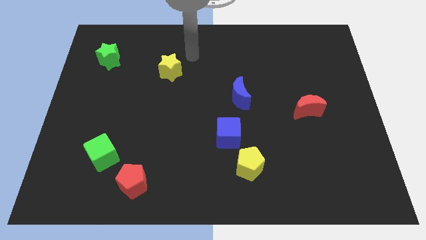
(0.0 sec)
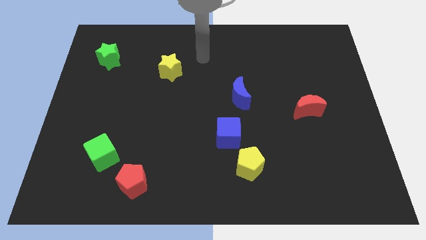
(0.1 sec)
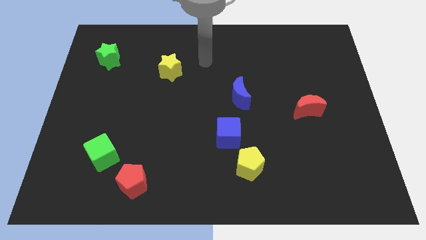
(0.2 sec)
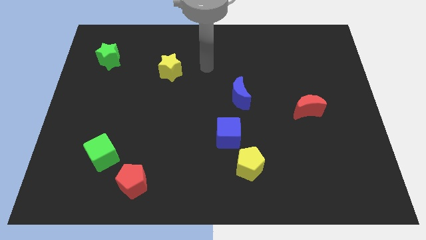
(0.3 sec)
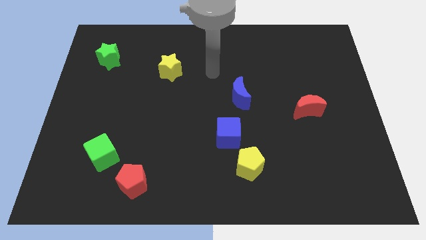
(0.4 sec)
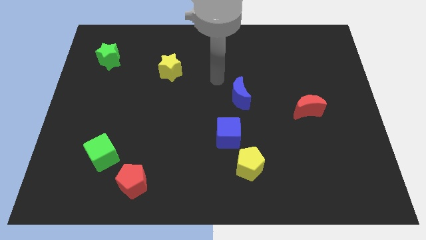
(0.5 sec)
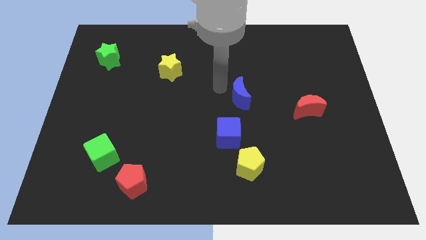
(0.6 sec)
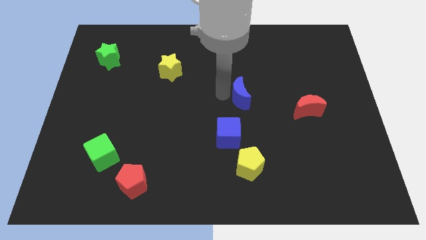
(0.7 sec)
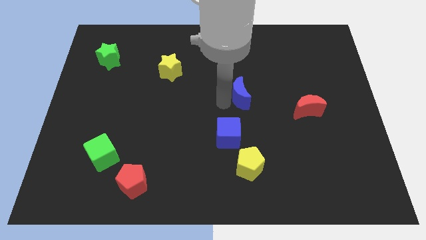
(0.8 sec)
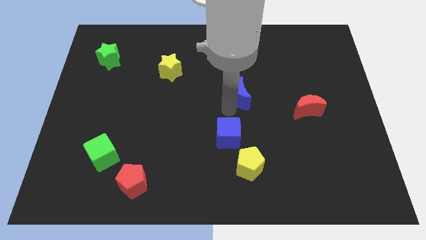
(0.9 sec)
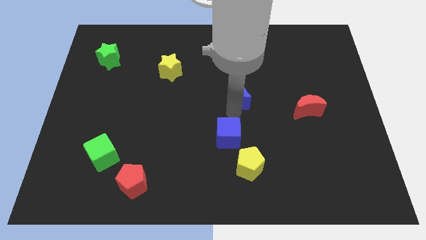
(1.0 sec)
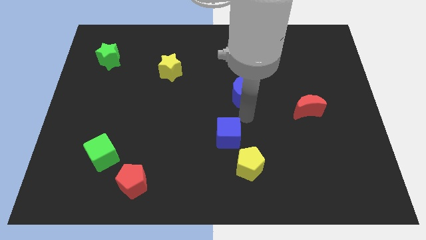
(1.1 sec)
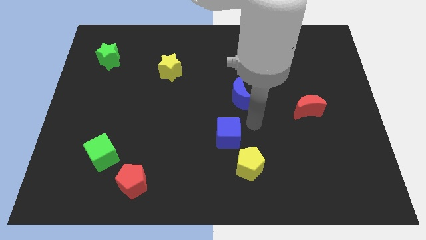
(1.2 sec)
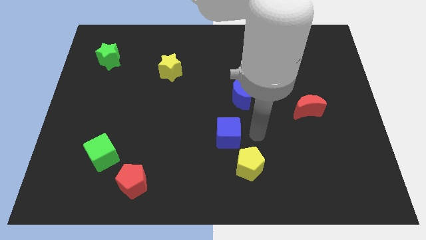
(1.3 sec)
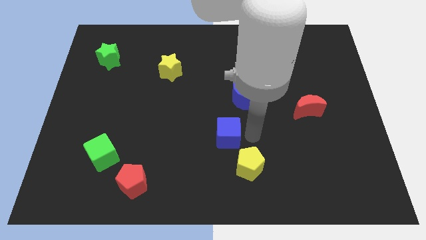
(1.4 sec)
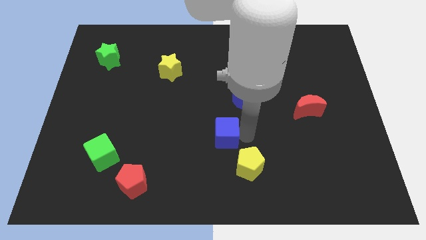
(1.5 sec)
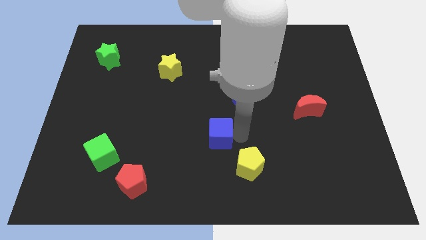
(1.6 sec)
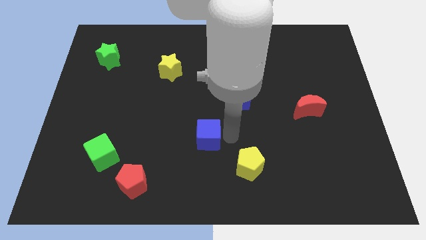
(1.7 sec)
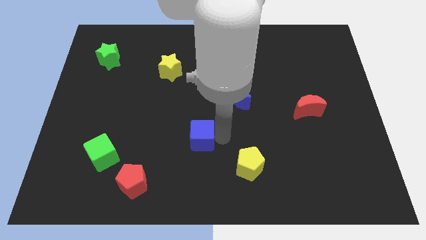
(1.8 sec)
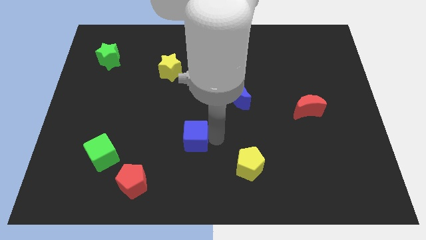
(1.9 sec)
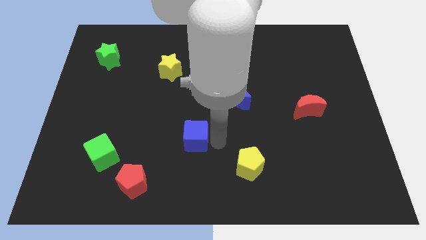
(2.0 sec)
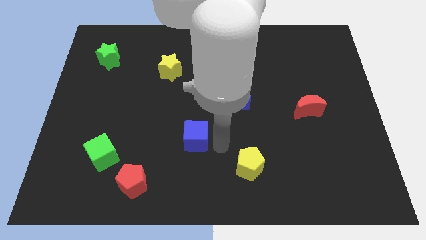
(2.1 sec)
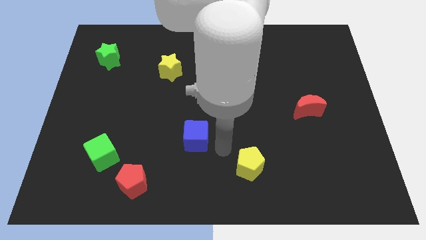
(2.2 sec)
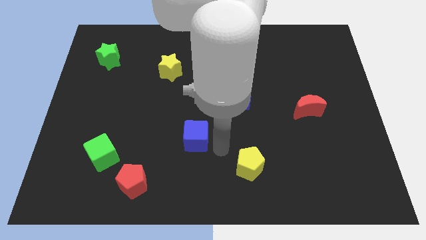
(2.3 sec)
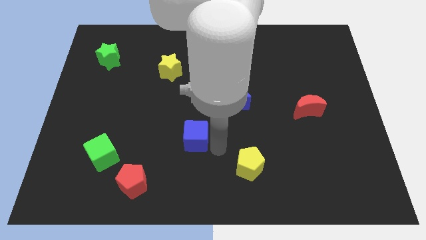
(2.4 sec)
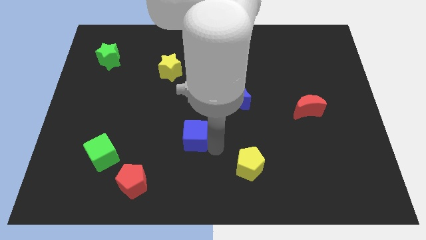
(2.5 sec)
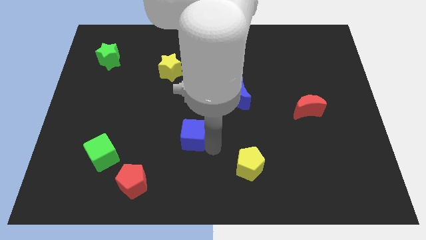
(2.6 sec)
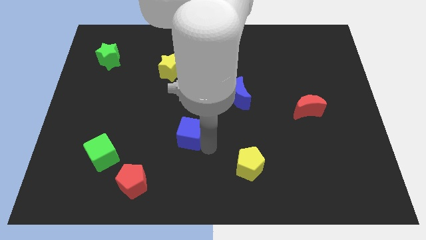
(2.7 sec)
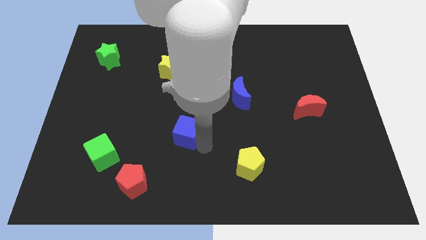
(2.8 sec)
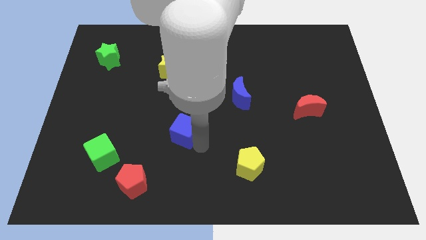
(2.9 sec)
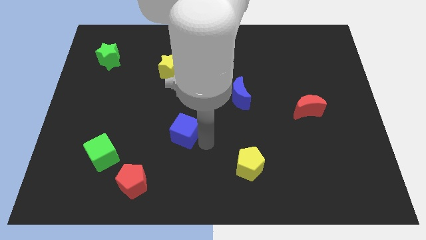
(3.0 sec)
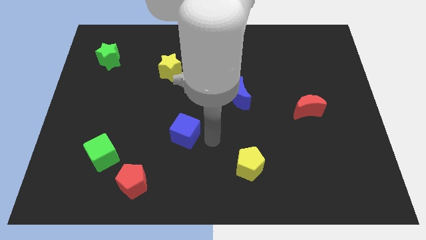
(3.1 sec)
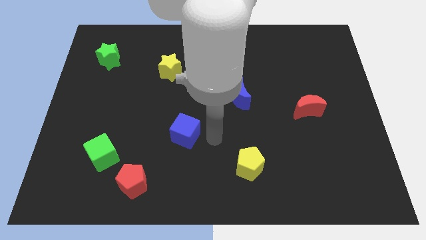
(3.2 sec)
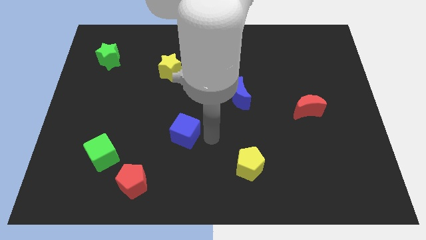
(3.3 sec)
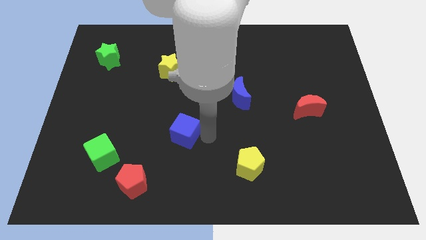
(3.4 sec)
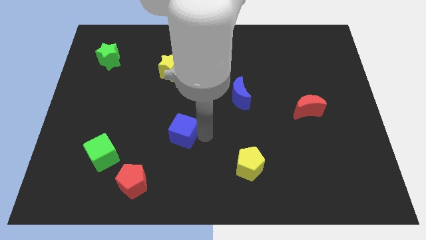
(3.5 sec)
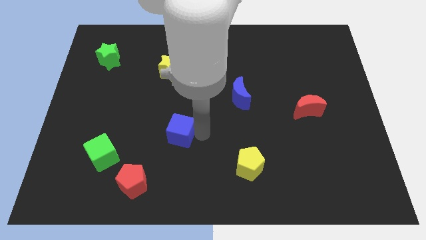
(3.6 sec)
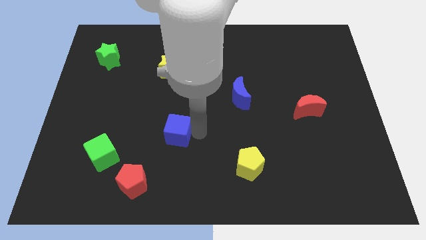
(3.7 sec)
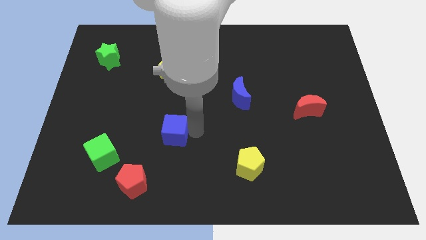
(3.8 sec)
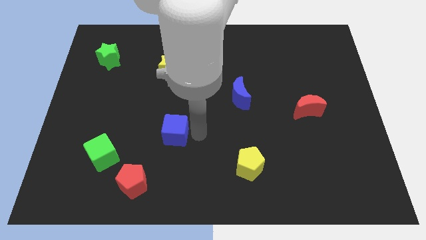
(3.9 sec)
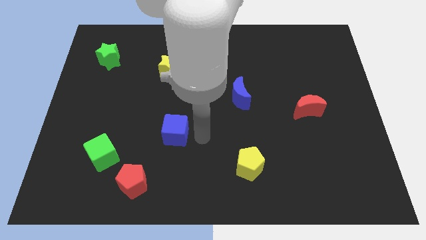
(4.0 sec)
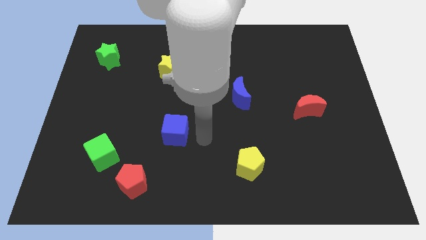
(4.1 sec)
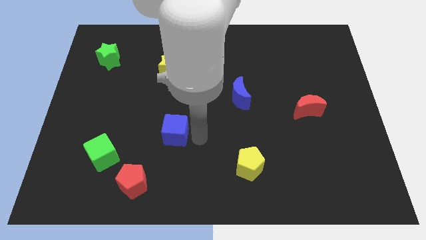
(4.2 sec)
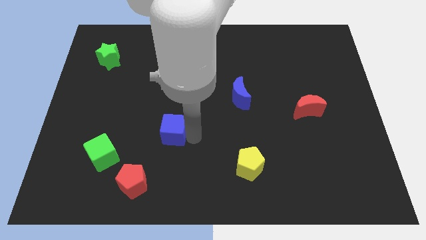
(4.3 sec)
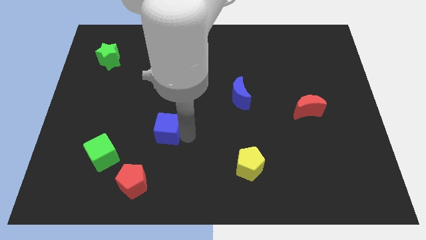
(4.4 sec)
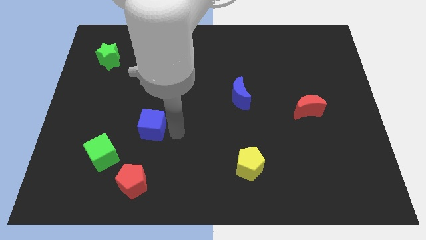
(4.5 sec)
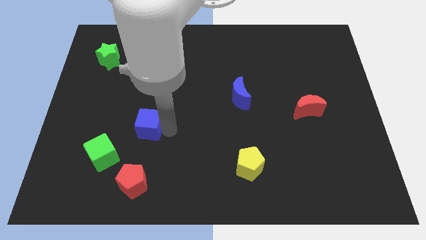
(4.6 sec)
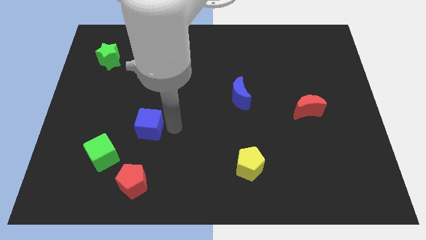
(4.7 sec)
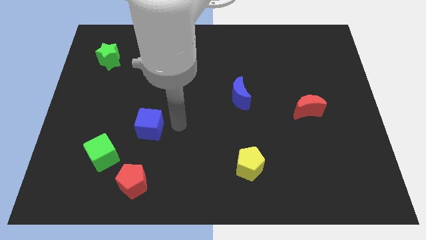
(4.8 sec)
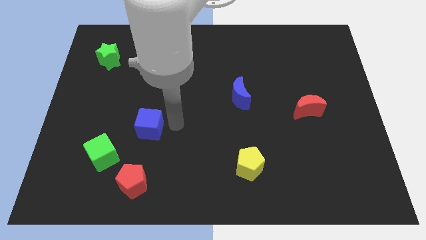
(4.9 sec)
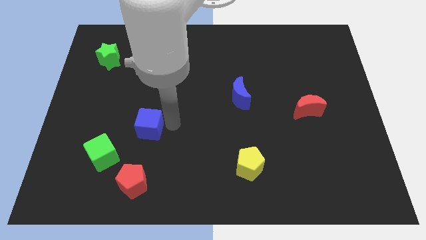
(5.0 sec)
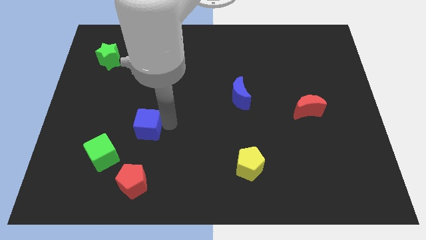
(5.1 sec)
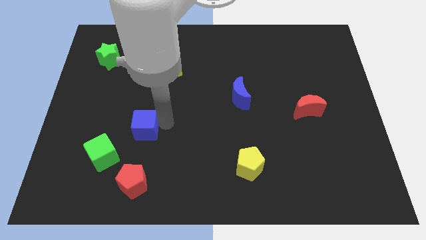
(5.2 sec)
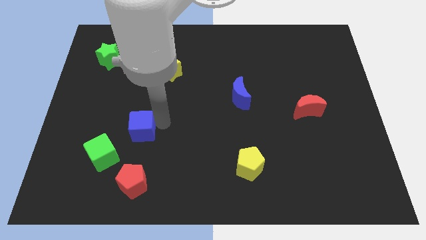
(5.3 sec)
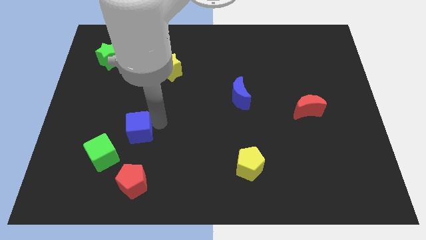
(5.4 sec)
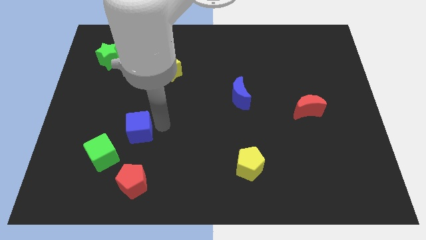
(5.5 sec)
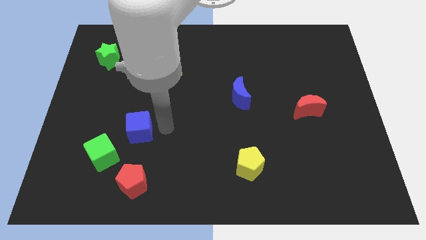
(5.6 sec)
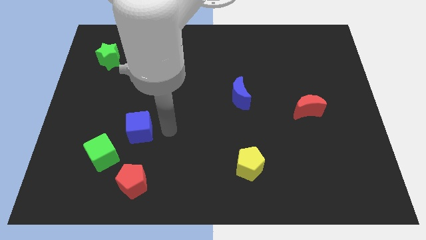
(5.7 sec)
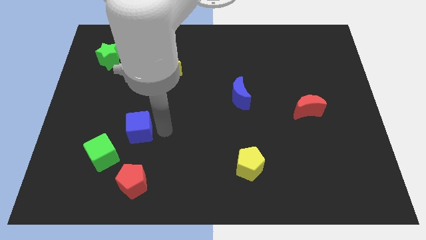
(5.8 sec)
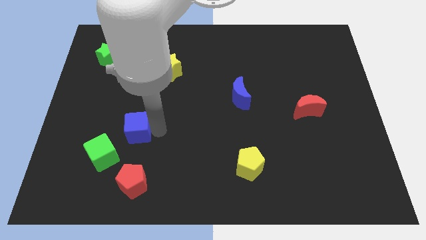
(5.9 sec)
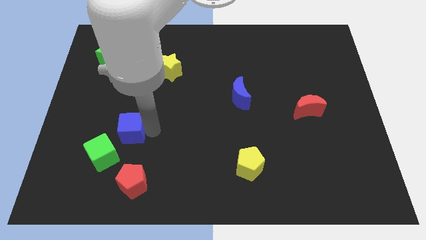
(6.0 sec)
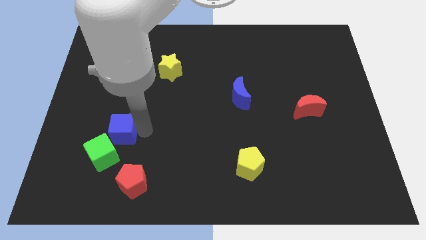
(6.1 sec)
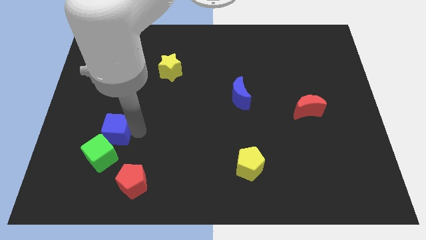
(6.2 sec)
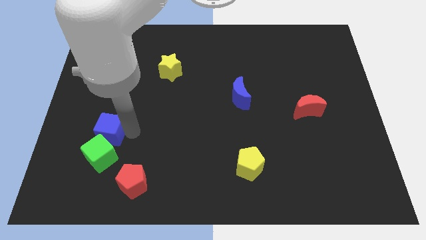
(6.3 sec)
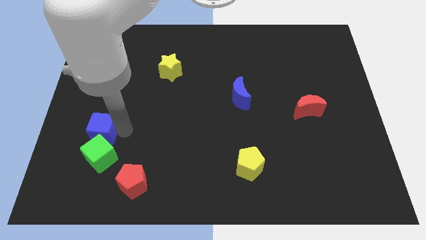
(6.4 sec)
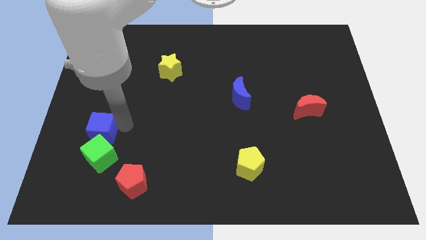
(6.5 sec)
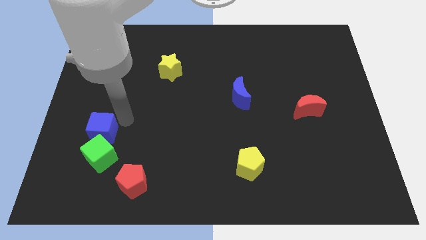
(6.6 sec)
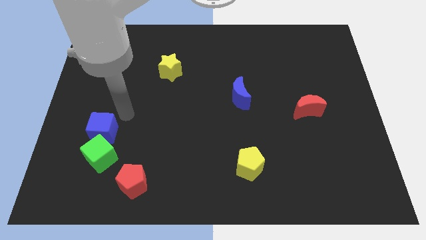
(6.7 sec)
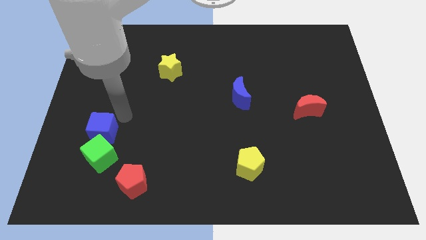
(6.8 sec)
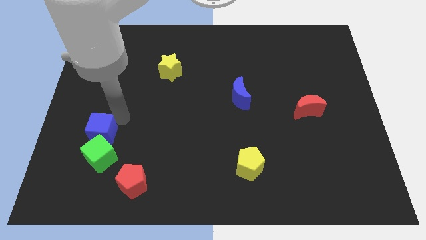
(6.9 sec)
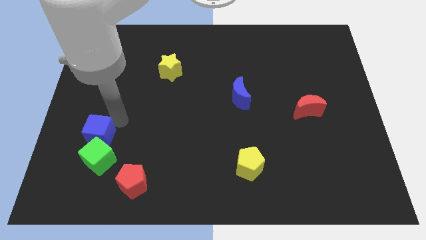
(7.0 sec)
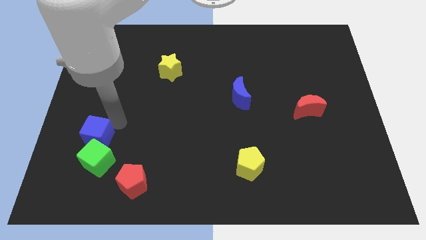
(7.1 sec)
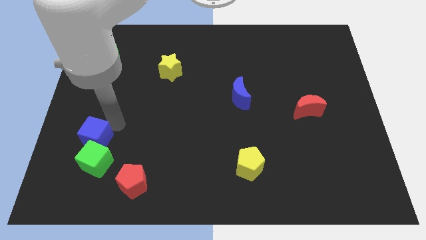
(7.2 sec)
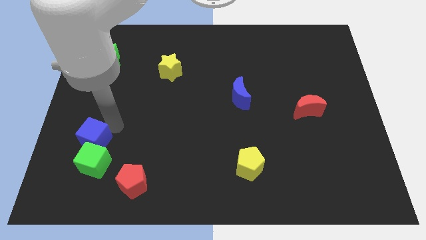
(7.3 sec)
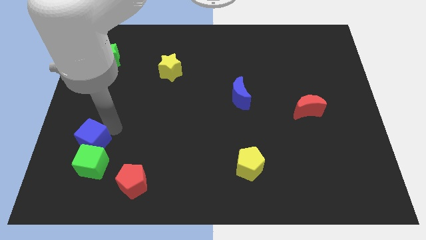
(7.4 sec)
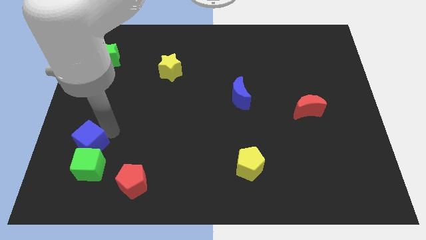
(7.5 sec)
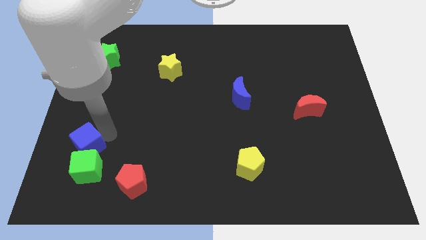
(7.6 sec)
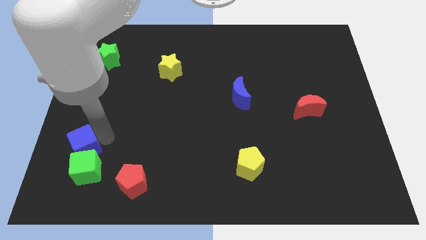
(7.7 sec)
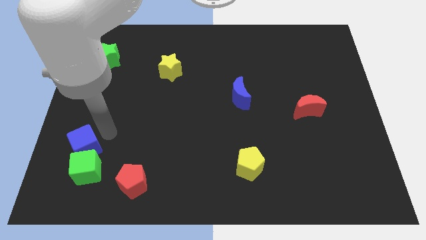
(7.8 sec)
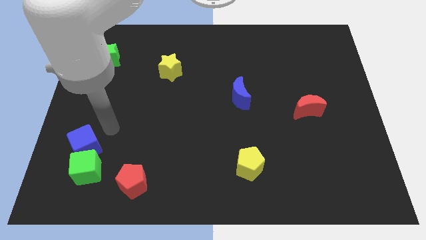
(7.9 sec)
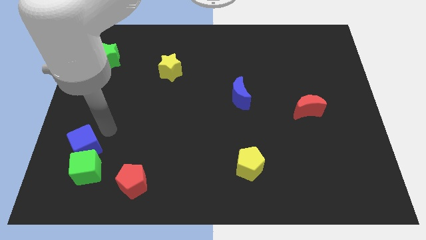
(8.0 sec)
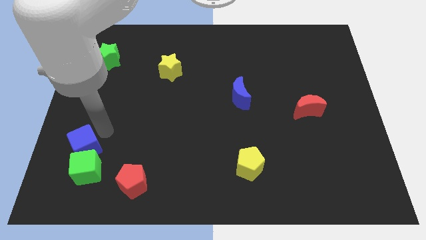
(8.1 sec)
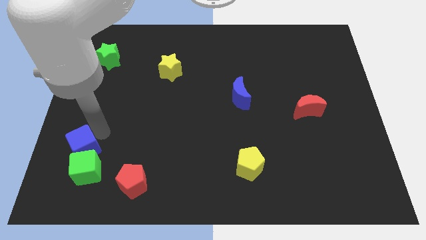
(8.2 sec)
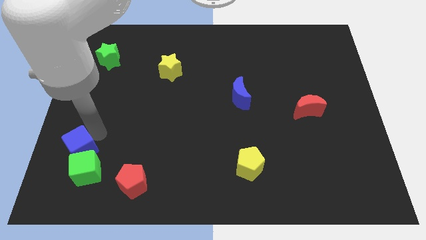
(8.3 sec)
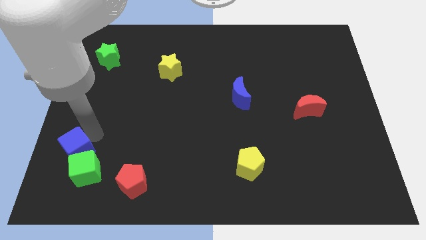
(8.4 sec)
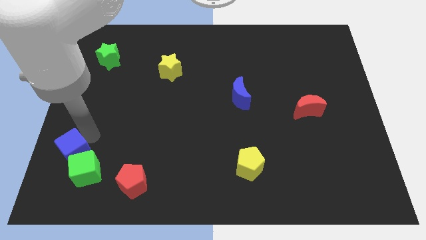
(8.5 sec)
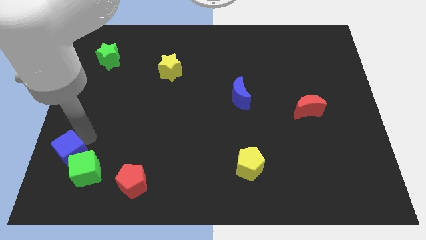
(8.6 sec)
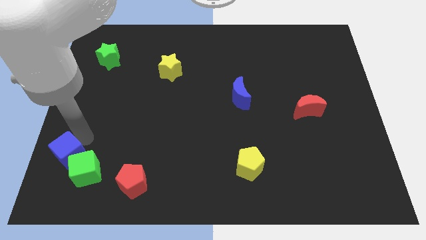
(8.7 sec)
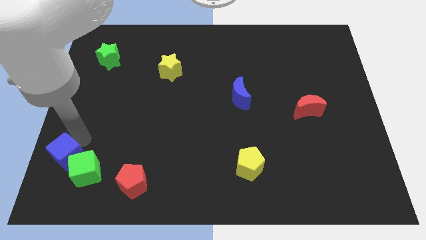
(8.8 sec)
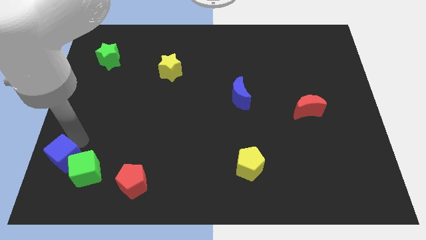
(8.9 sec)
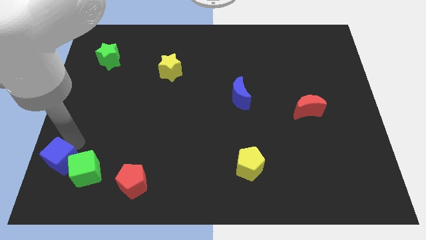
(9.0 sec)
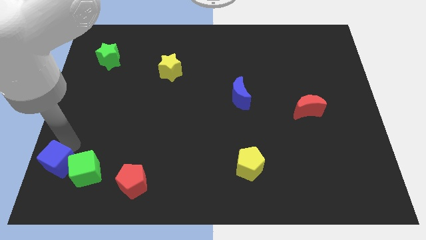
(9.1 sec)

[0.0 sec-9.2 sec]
push the blue cube to the bottom left corner
